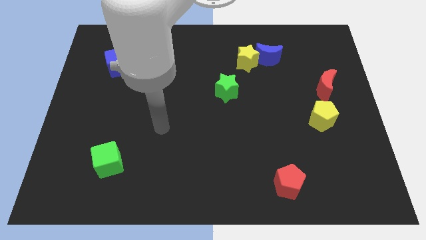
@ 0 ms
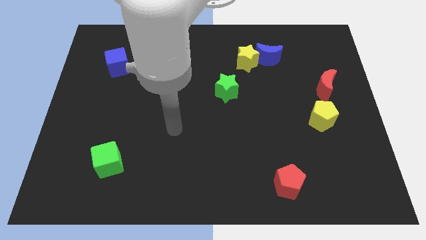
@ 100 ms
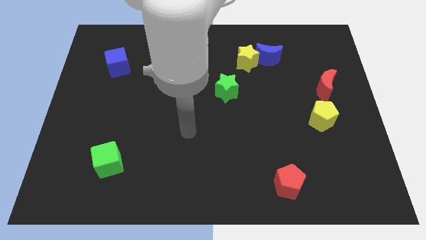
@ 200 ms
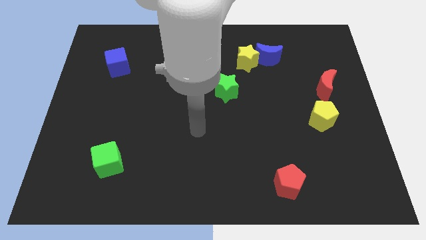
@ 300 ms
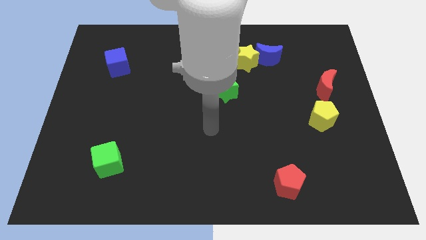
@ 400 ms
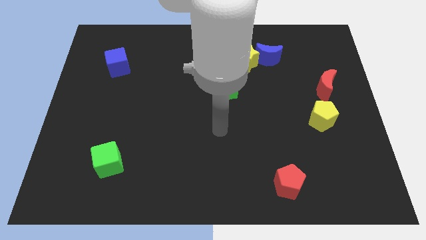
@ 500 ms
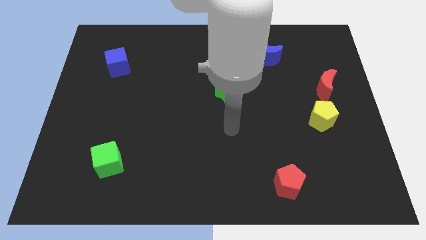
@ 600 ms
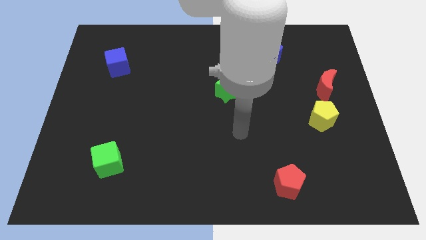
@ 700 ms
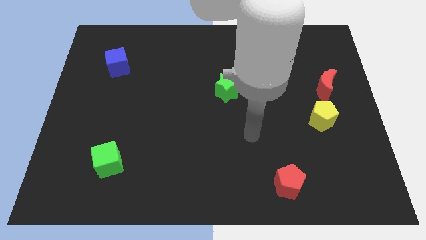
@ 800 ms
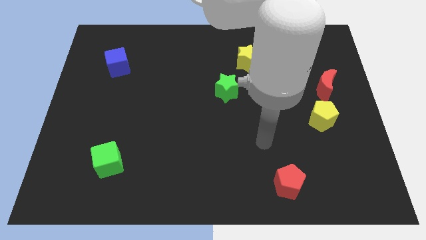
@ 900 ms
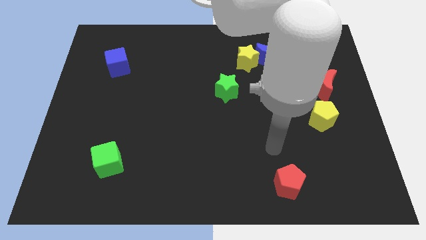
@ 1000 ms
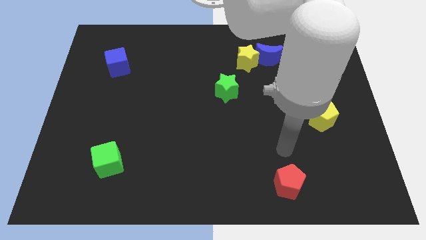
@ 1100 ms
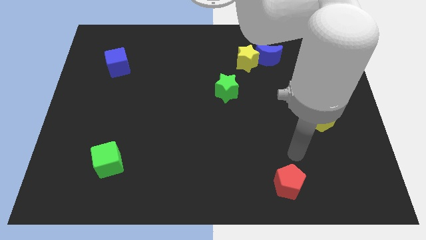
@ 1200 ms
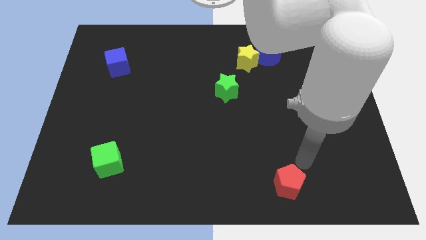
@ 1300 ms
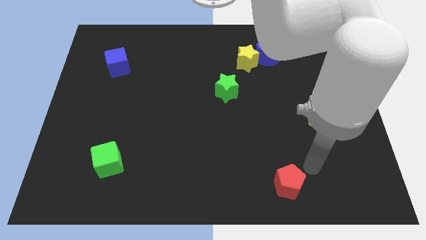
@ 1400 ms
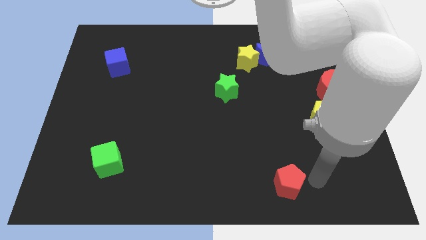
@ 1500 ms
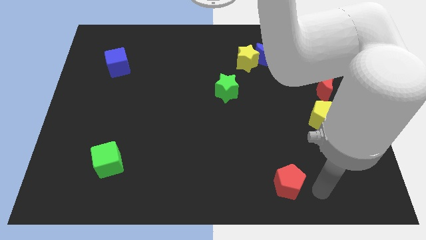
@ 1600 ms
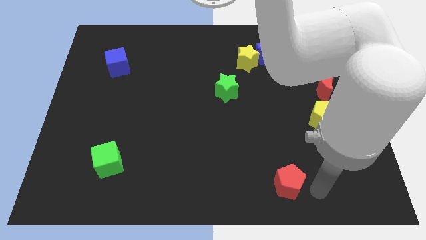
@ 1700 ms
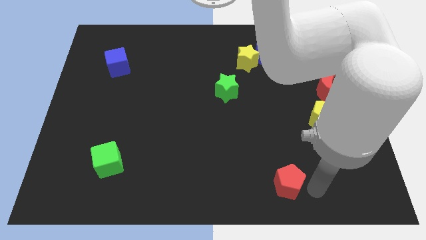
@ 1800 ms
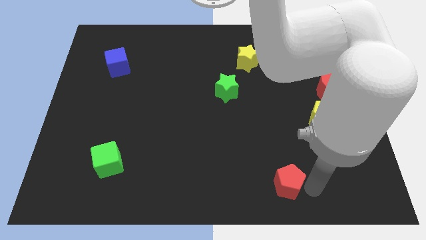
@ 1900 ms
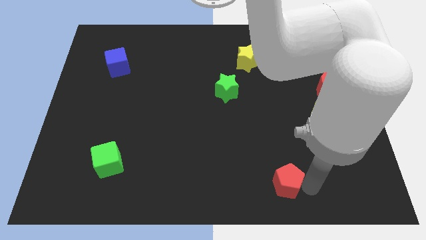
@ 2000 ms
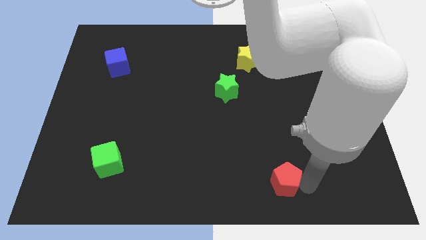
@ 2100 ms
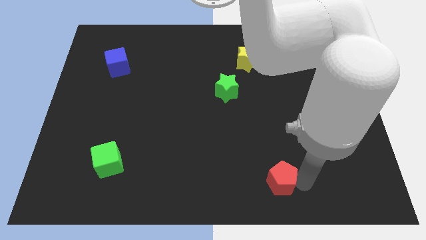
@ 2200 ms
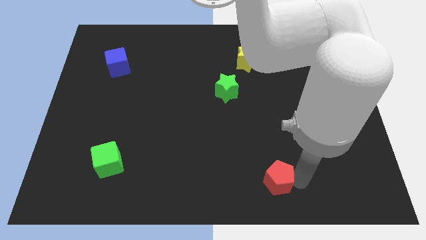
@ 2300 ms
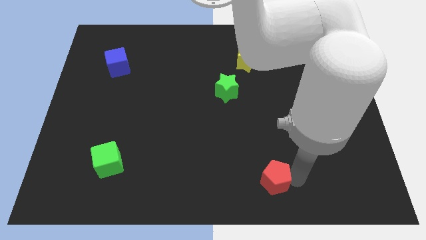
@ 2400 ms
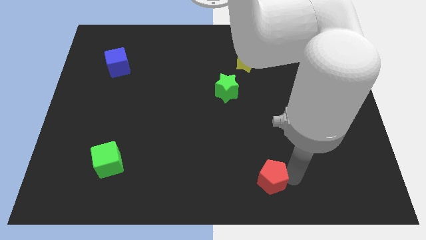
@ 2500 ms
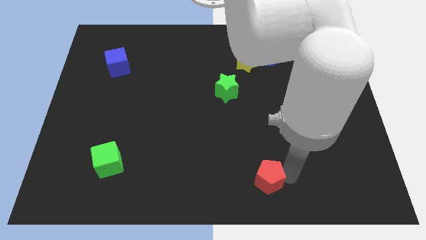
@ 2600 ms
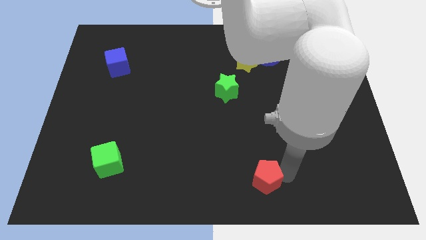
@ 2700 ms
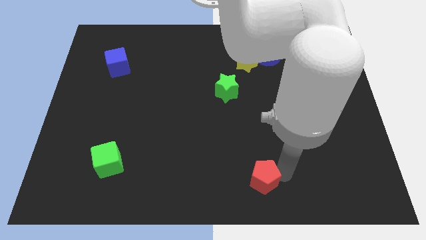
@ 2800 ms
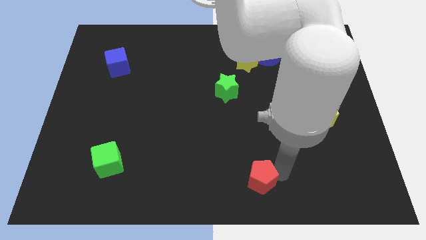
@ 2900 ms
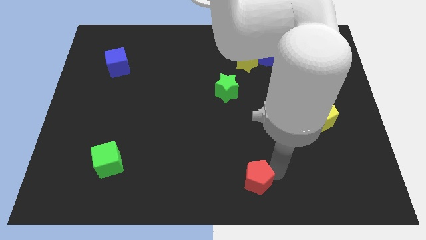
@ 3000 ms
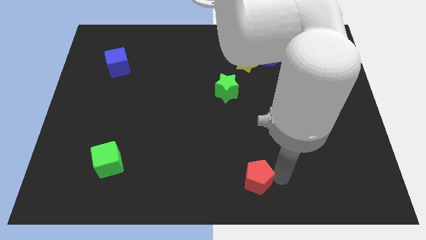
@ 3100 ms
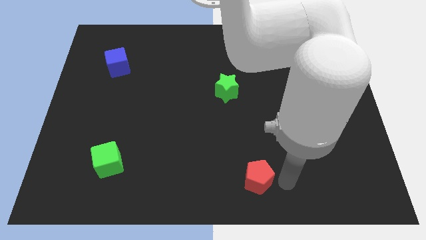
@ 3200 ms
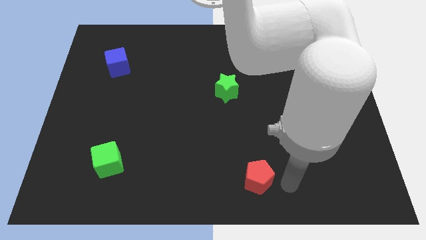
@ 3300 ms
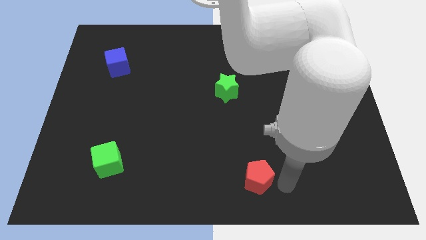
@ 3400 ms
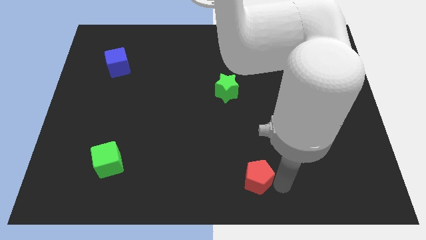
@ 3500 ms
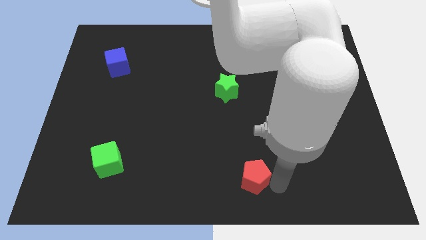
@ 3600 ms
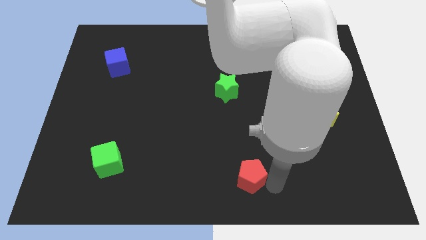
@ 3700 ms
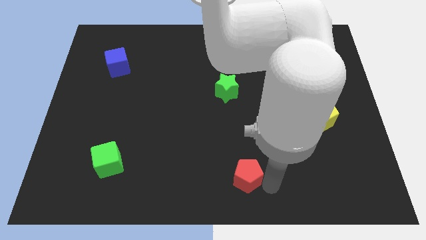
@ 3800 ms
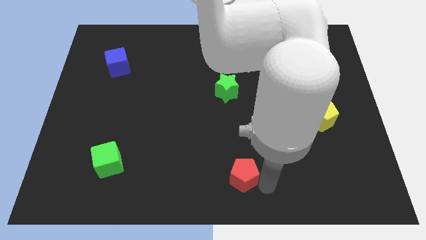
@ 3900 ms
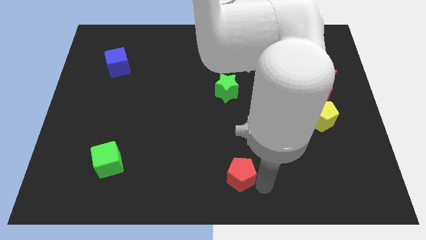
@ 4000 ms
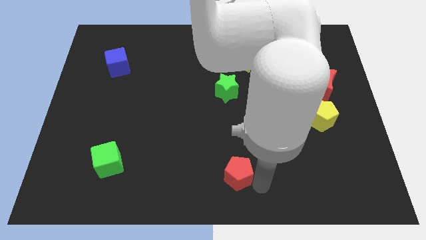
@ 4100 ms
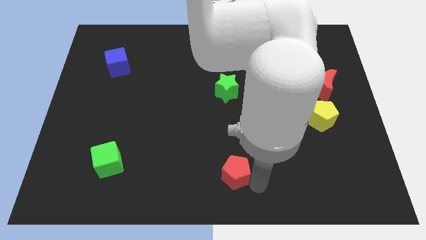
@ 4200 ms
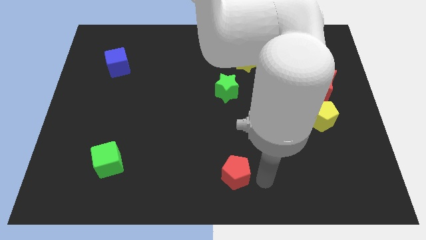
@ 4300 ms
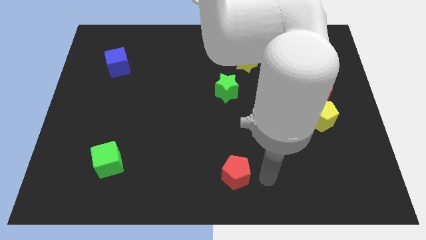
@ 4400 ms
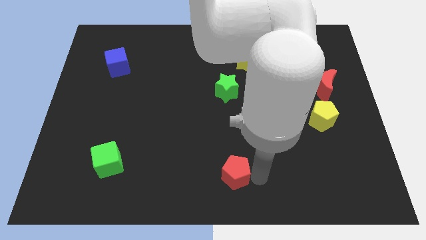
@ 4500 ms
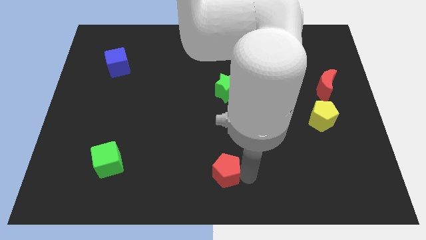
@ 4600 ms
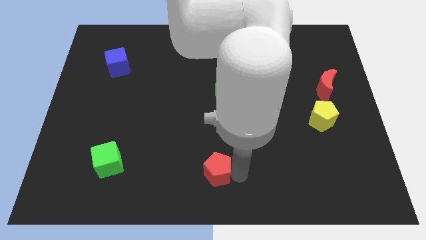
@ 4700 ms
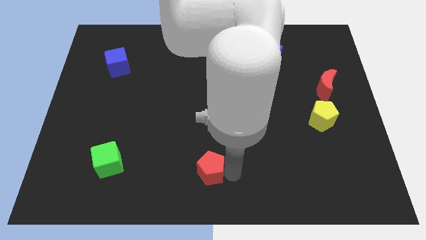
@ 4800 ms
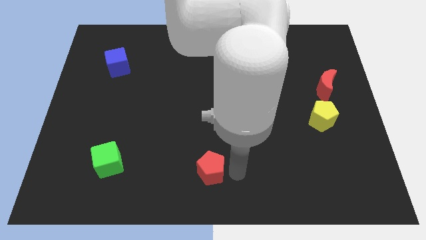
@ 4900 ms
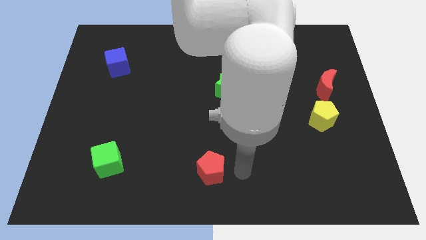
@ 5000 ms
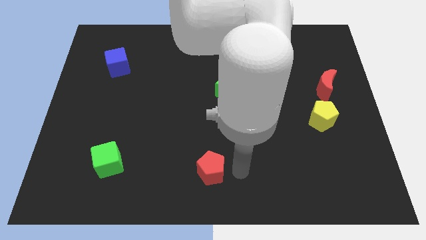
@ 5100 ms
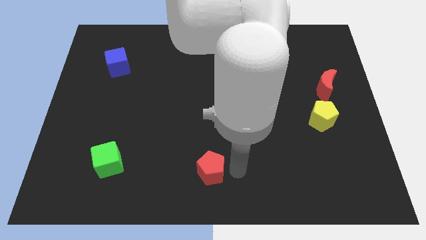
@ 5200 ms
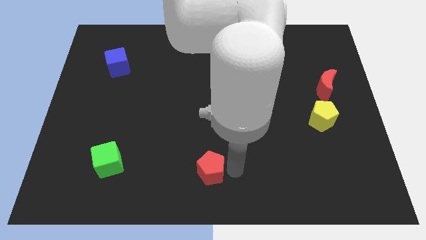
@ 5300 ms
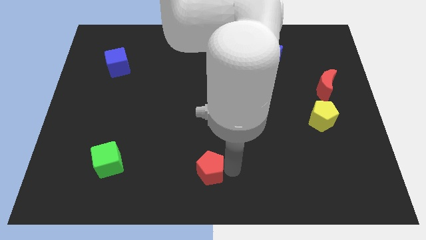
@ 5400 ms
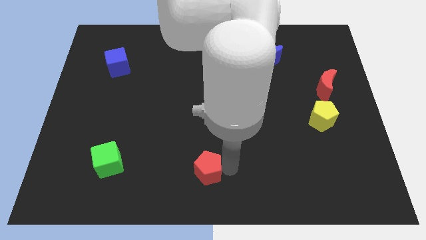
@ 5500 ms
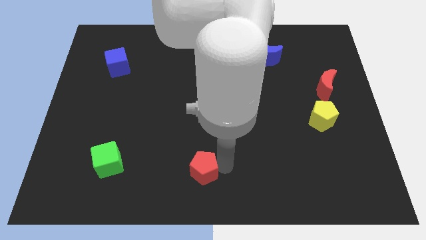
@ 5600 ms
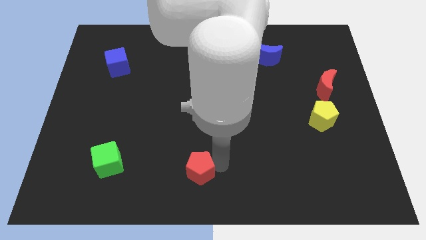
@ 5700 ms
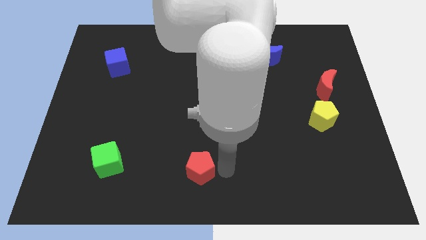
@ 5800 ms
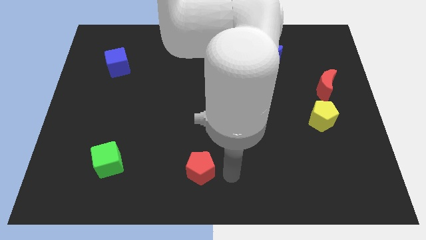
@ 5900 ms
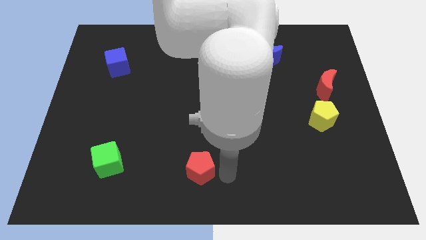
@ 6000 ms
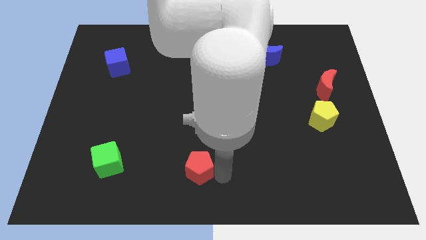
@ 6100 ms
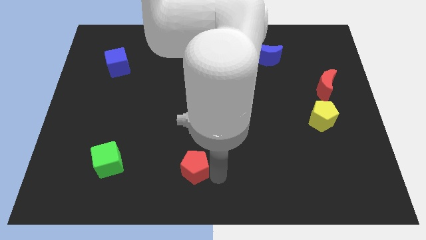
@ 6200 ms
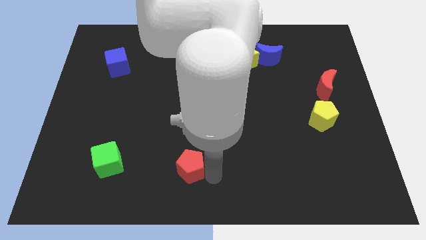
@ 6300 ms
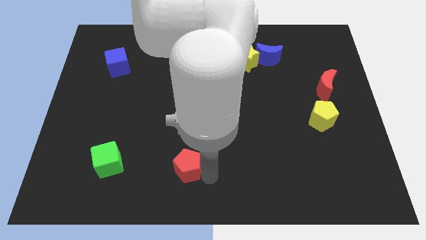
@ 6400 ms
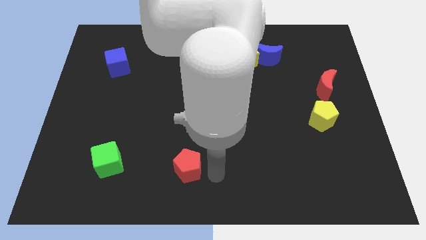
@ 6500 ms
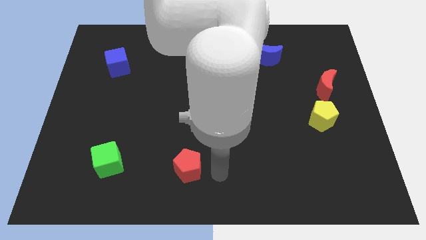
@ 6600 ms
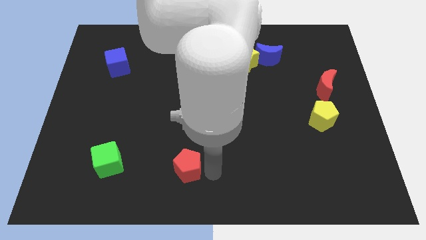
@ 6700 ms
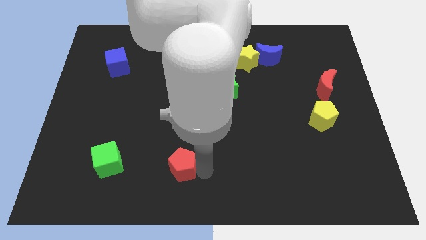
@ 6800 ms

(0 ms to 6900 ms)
slide the red pentagon to the right of the green cube

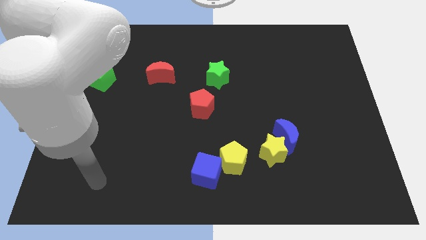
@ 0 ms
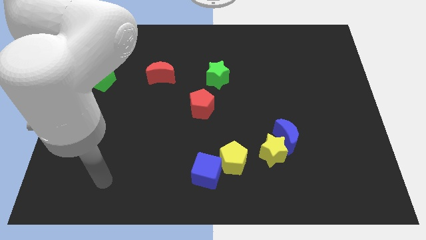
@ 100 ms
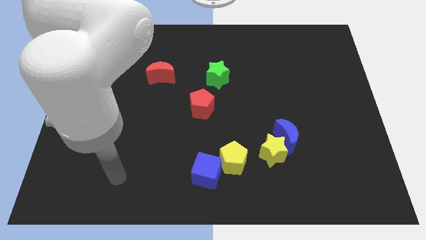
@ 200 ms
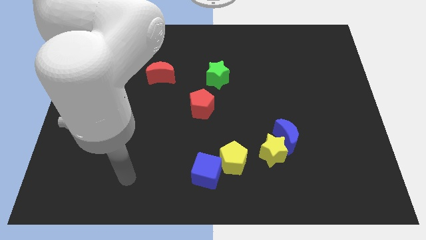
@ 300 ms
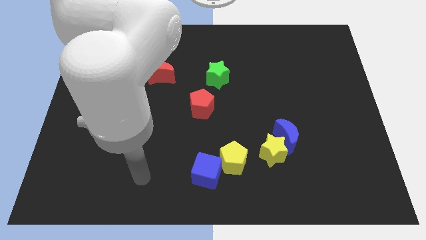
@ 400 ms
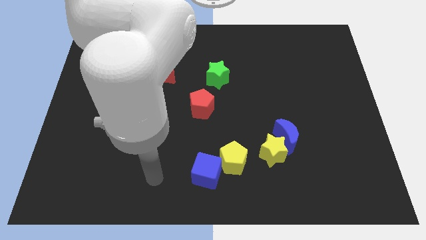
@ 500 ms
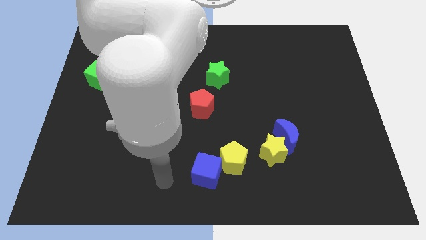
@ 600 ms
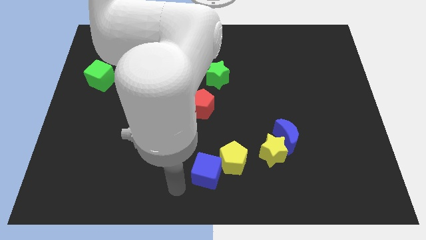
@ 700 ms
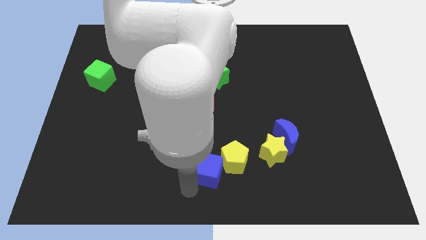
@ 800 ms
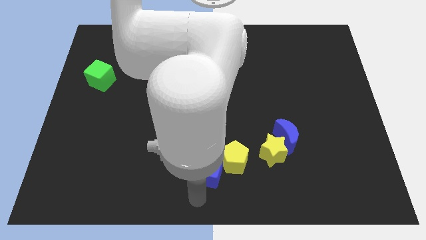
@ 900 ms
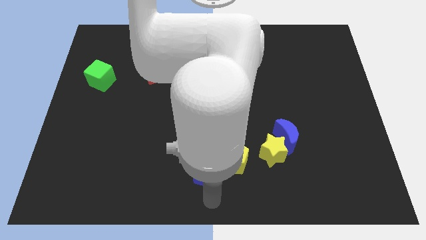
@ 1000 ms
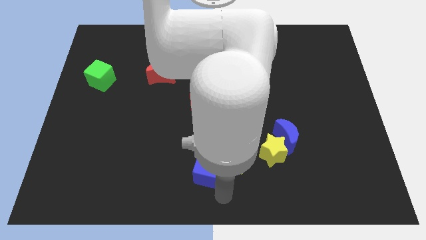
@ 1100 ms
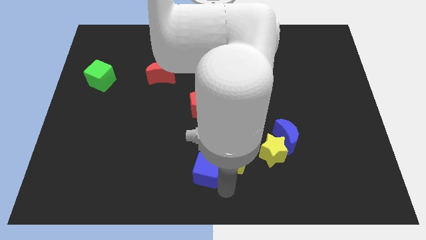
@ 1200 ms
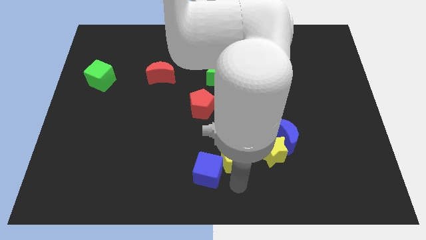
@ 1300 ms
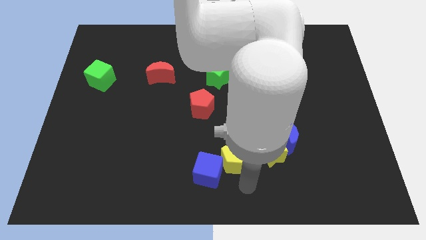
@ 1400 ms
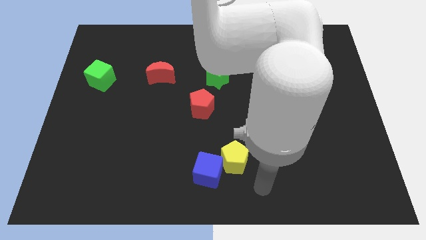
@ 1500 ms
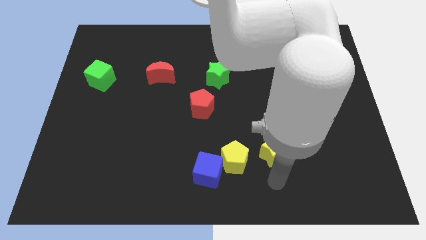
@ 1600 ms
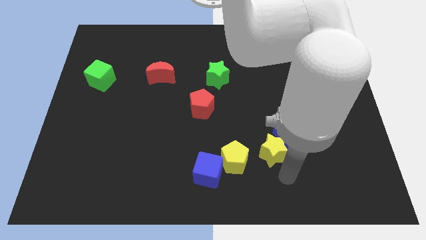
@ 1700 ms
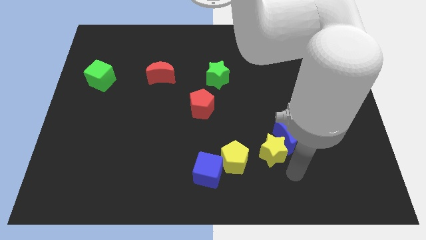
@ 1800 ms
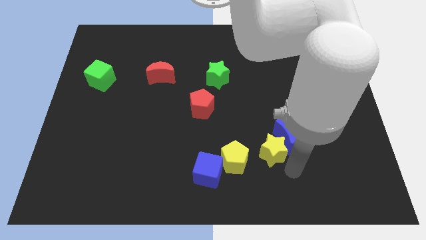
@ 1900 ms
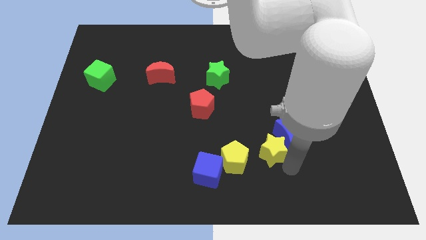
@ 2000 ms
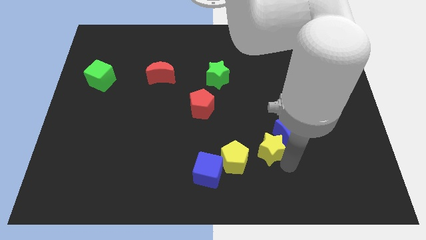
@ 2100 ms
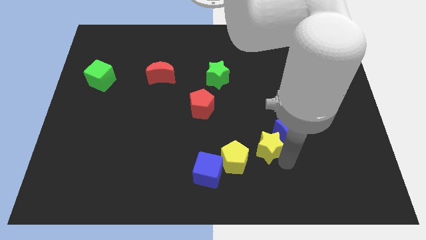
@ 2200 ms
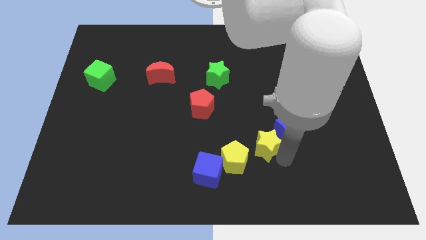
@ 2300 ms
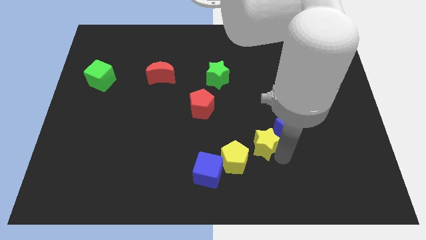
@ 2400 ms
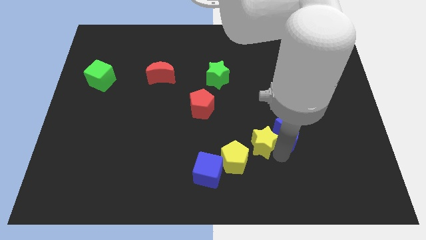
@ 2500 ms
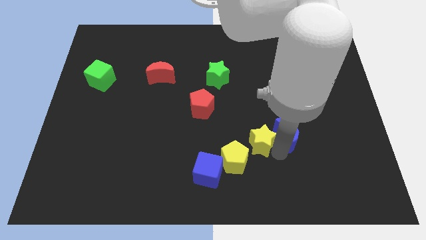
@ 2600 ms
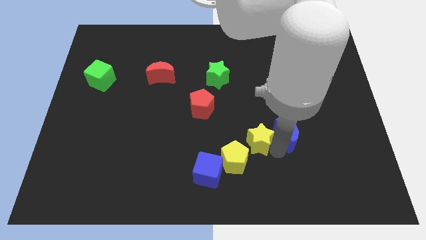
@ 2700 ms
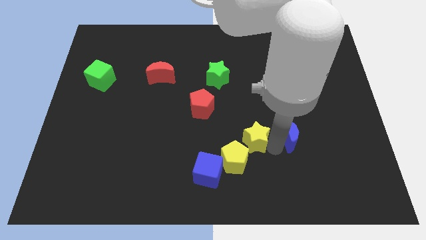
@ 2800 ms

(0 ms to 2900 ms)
push the yellow star to the top side of the yellow pentagon
